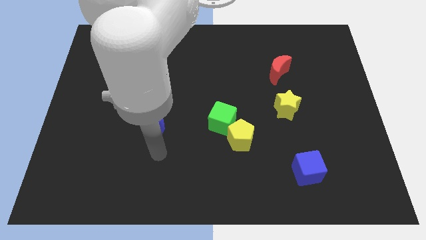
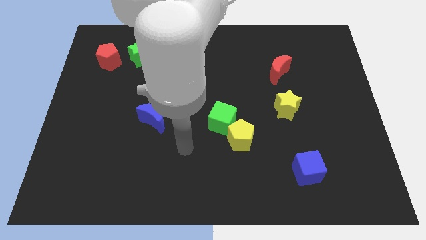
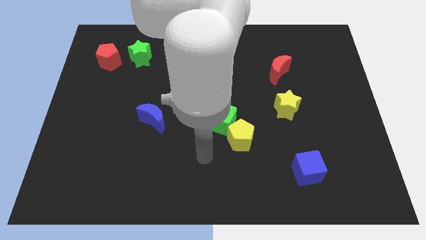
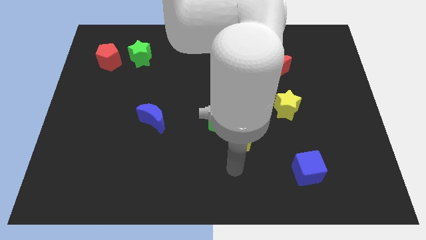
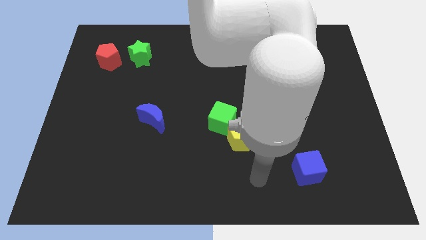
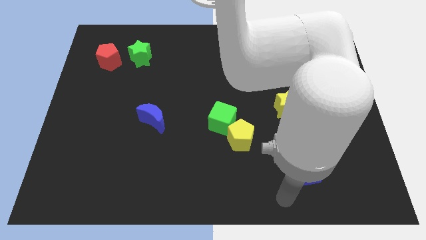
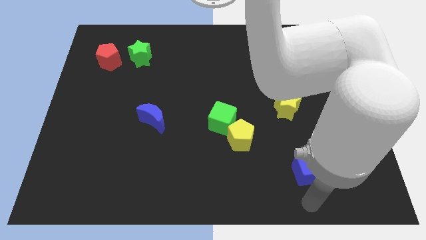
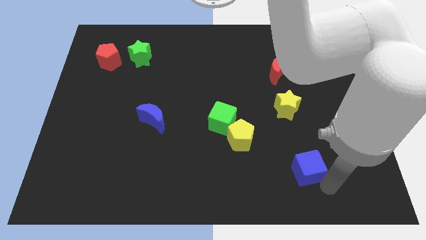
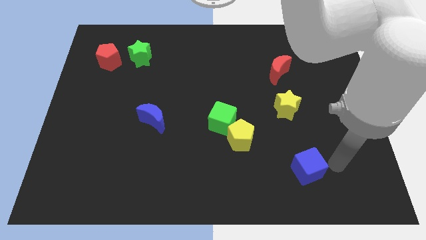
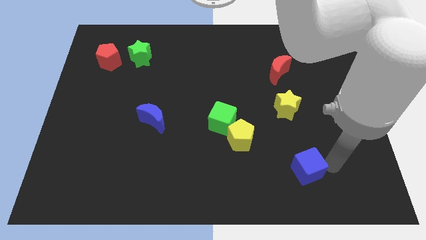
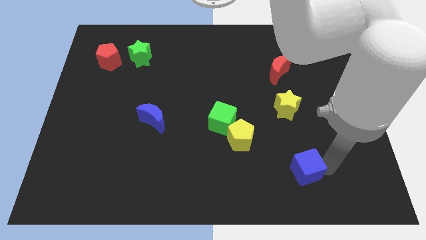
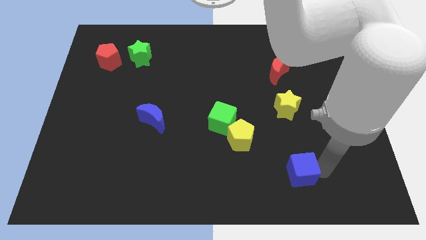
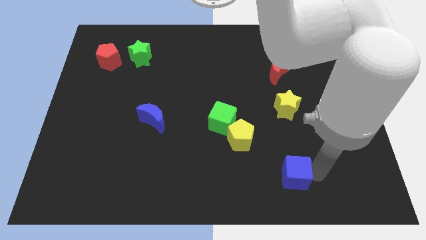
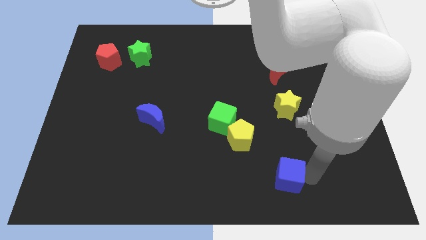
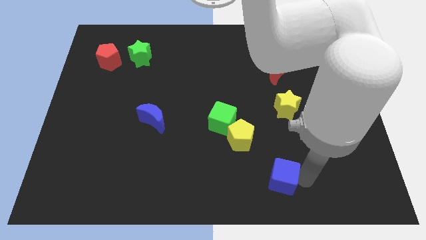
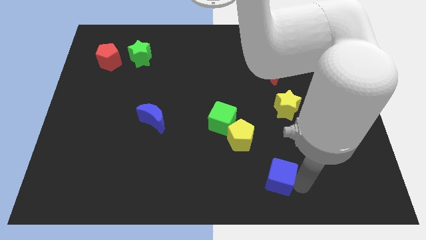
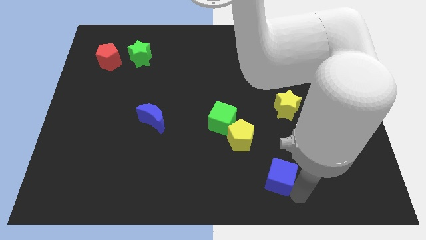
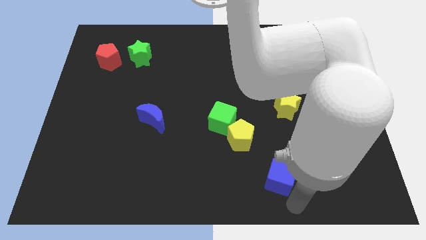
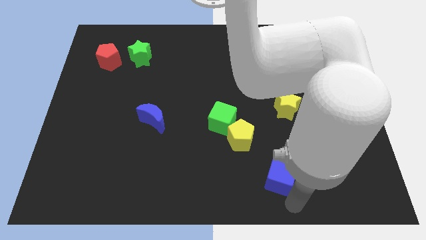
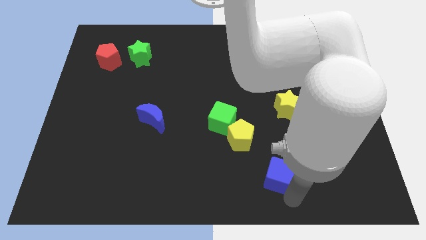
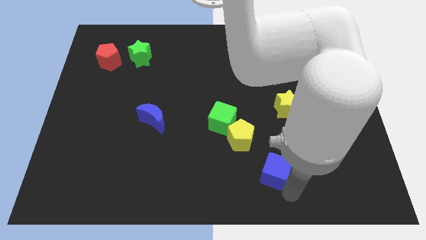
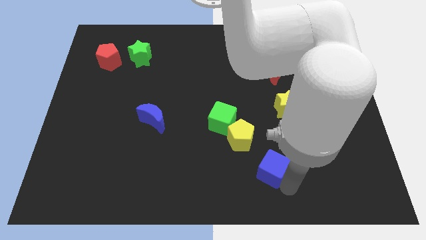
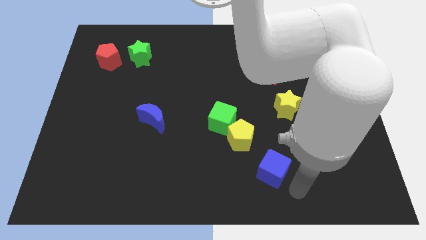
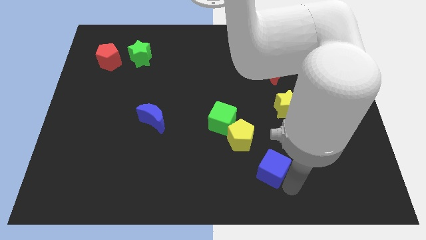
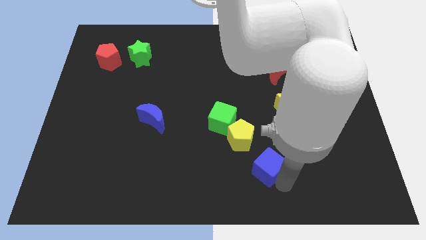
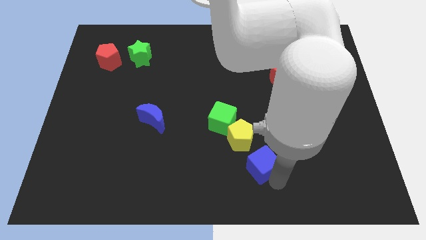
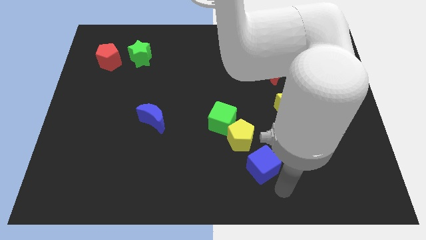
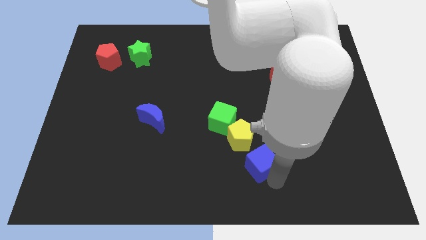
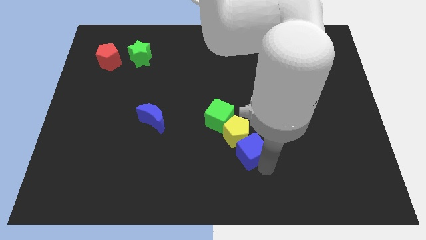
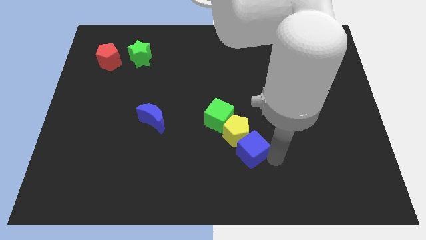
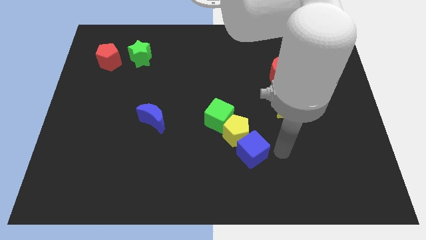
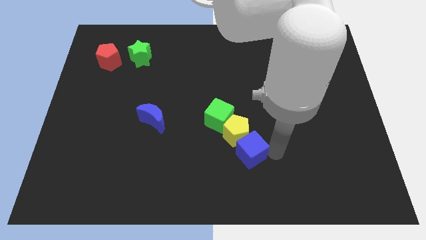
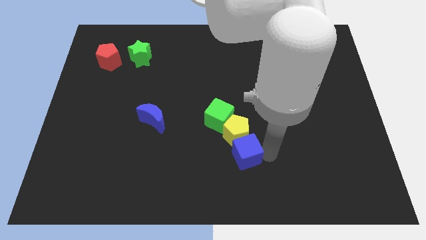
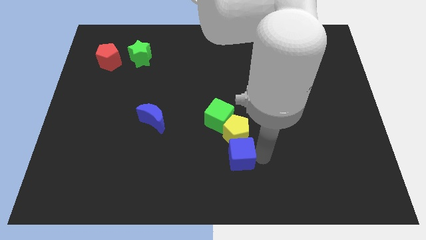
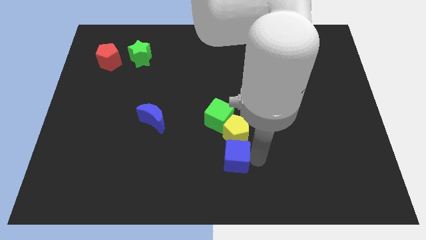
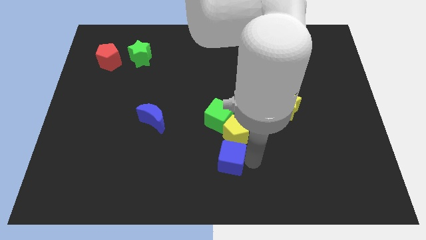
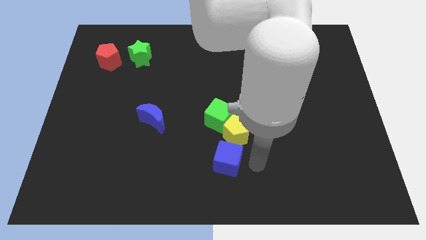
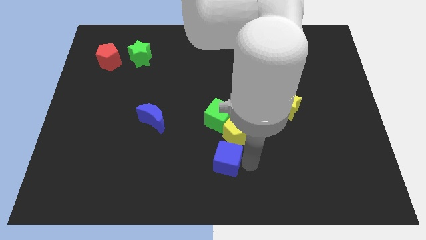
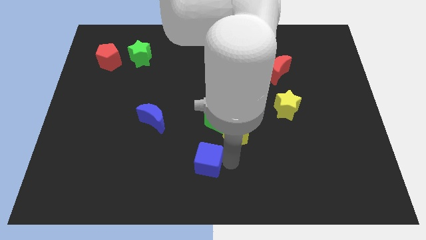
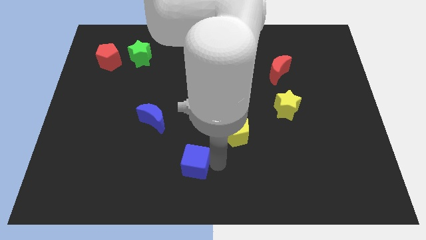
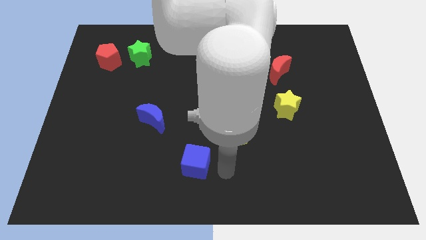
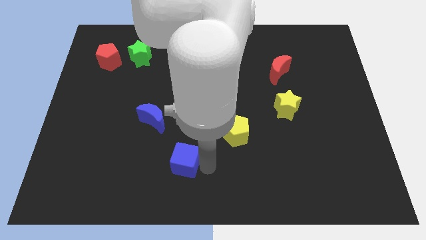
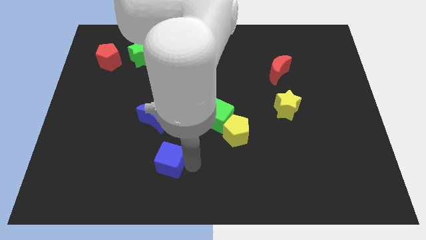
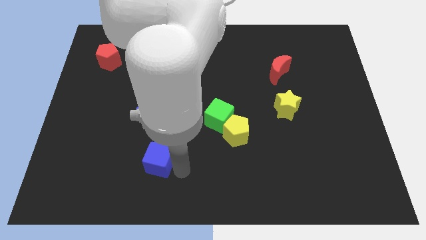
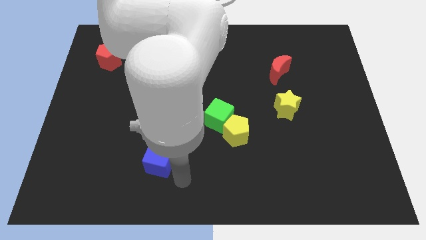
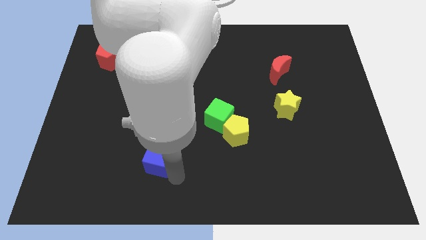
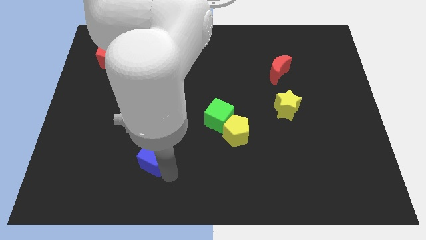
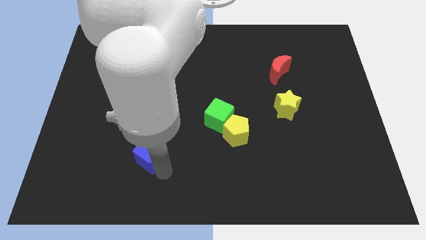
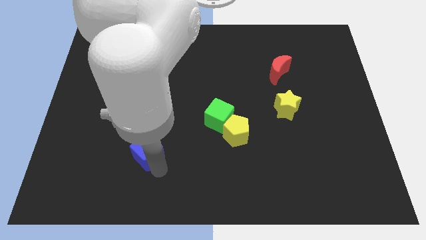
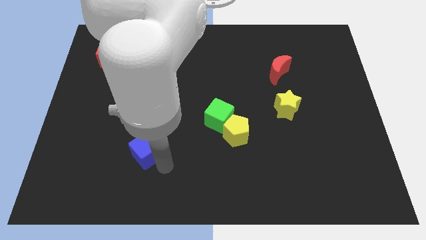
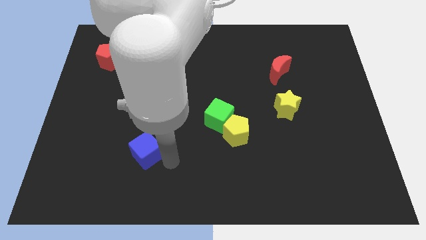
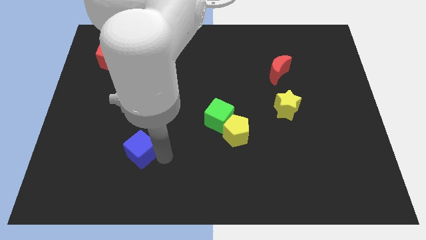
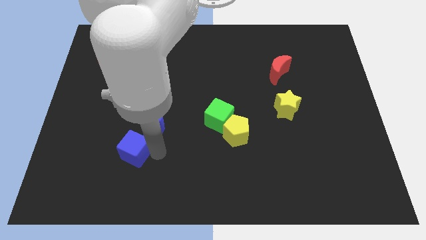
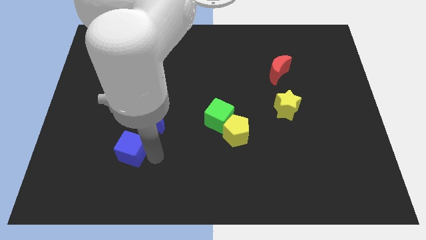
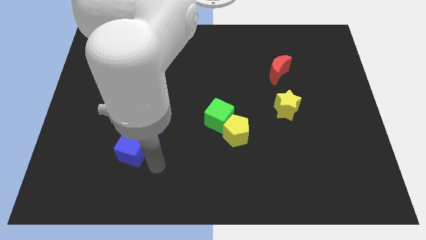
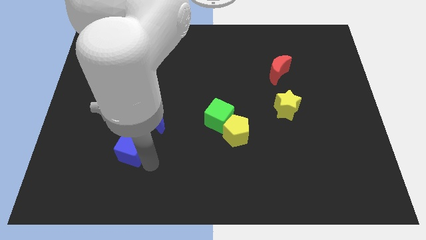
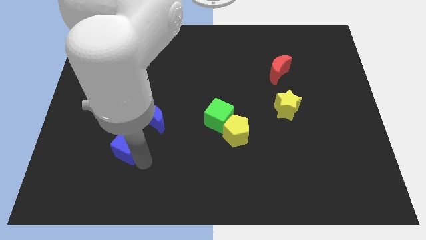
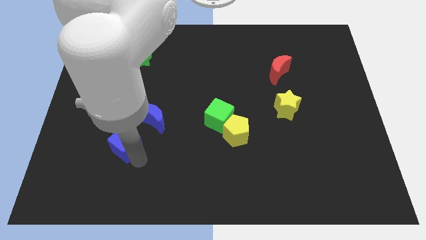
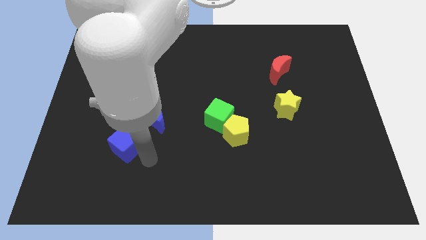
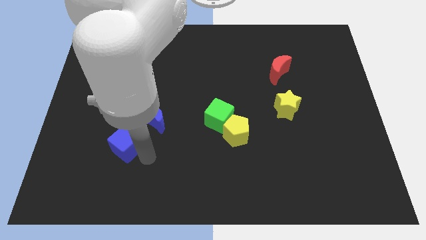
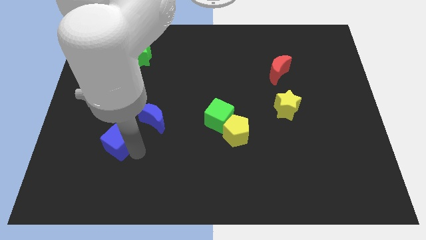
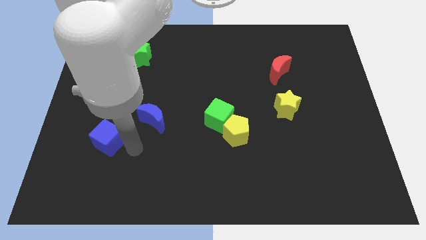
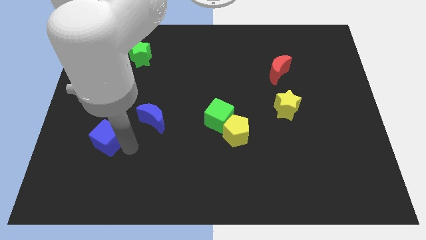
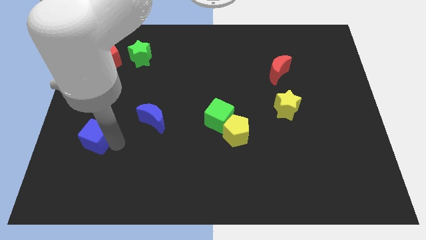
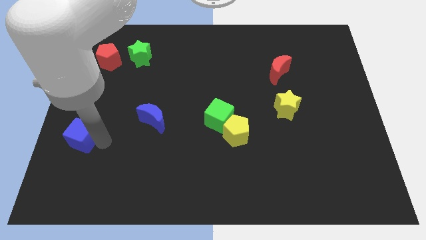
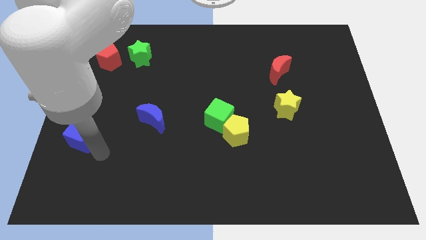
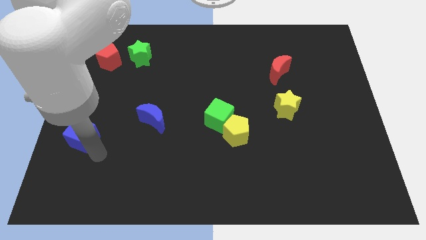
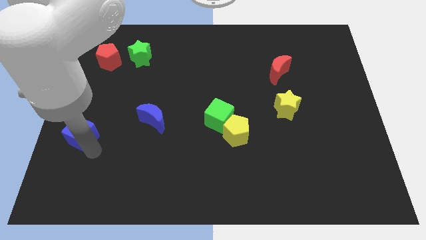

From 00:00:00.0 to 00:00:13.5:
put the blue cube to the center left
